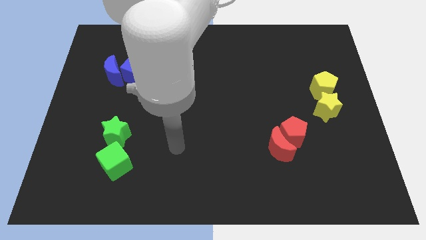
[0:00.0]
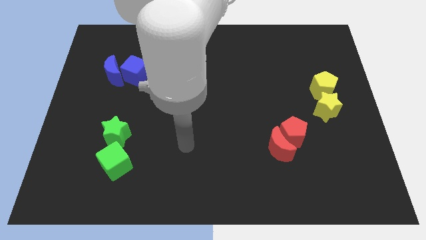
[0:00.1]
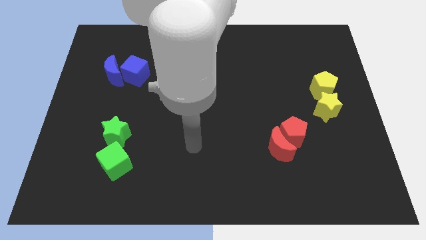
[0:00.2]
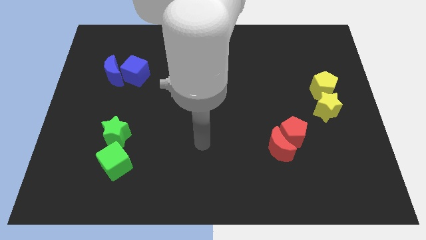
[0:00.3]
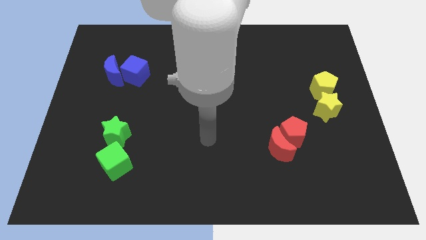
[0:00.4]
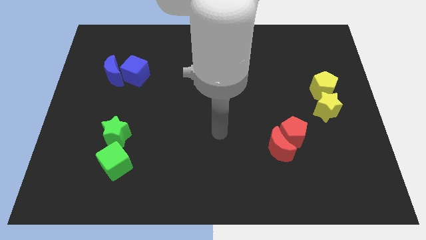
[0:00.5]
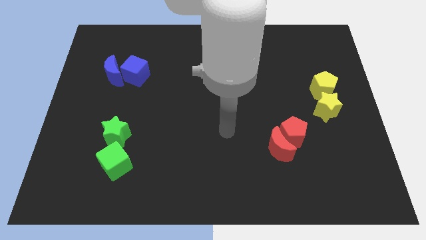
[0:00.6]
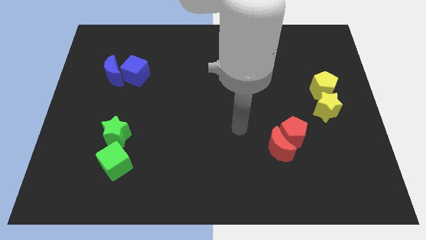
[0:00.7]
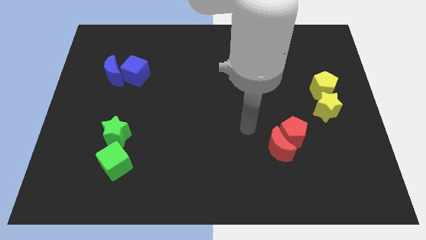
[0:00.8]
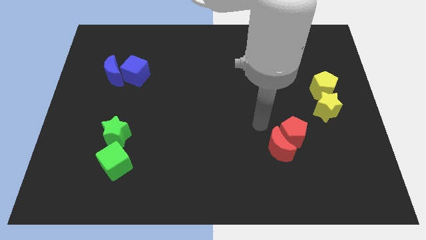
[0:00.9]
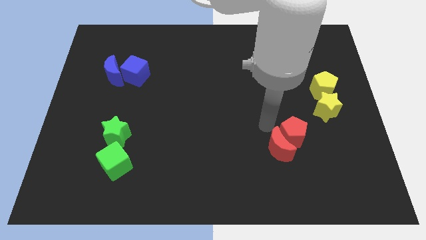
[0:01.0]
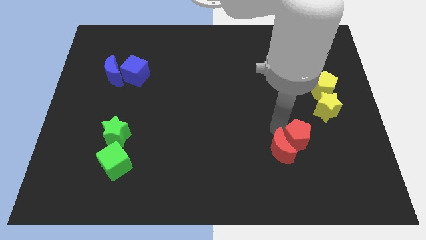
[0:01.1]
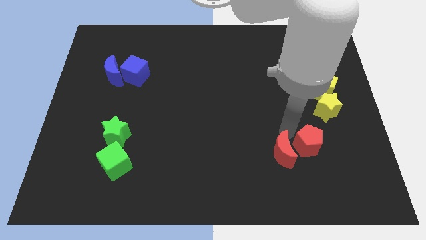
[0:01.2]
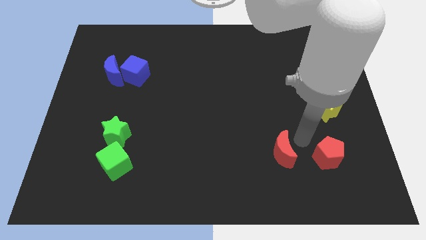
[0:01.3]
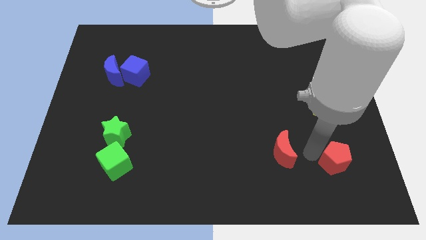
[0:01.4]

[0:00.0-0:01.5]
move the red moon away from the red pentagon

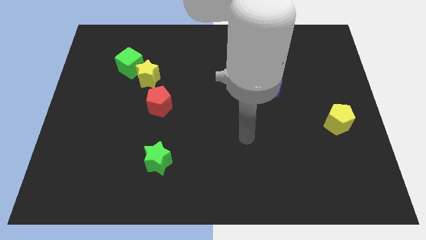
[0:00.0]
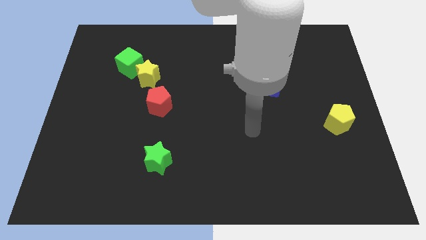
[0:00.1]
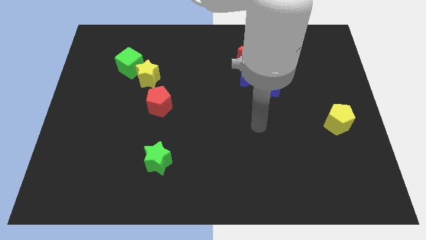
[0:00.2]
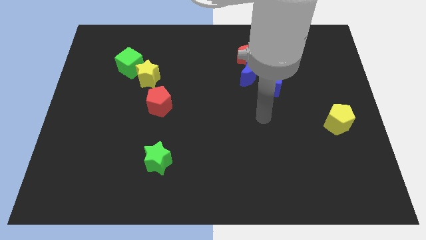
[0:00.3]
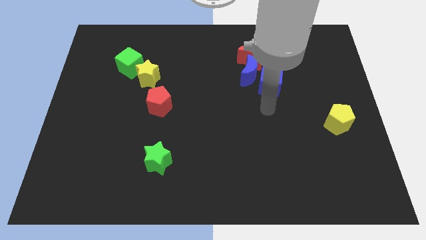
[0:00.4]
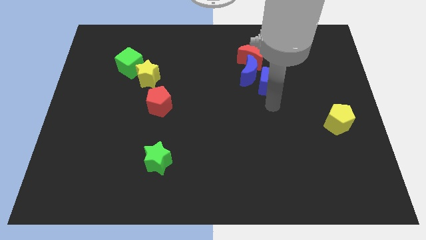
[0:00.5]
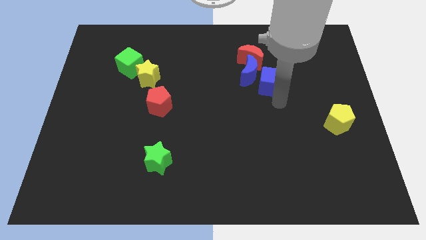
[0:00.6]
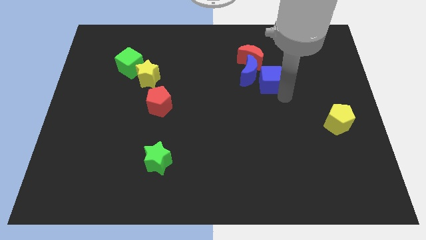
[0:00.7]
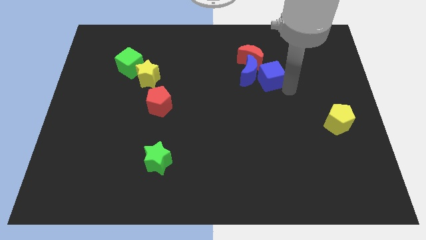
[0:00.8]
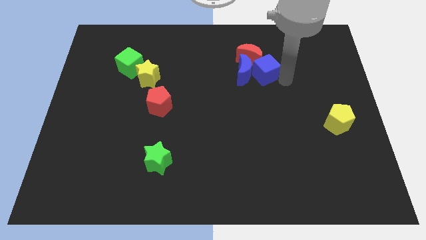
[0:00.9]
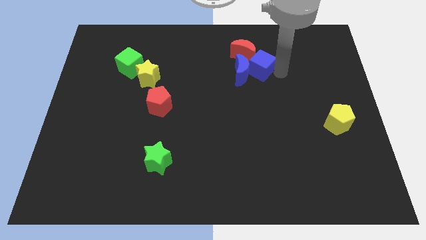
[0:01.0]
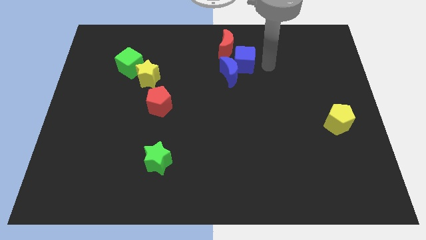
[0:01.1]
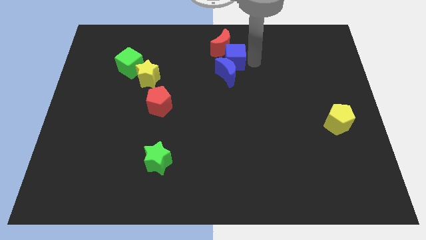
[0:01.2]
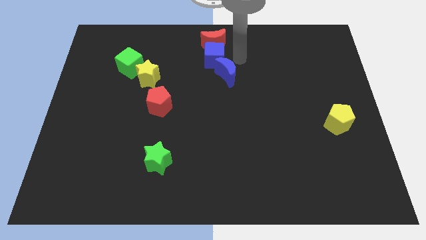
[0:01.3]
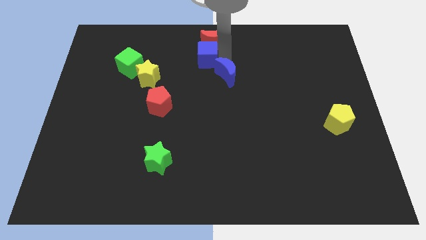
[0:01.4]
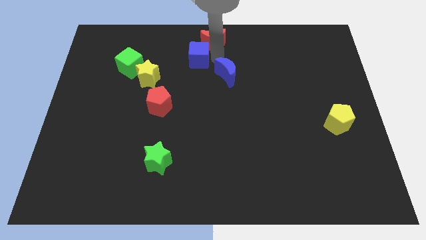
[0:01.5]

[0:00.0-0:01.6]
separate the blue moon from the red moon and blue cube

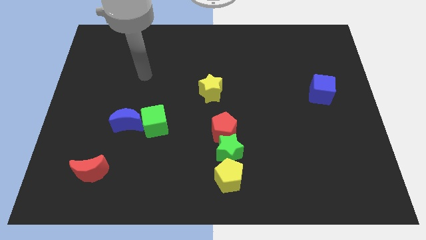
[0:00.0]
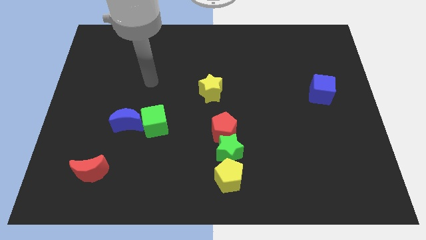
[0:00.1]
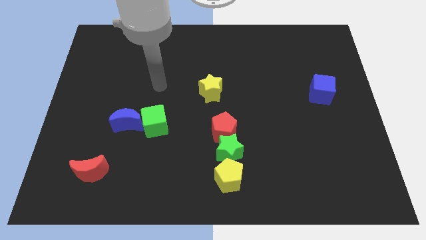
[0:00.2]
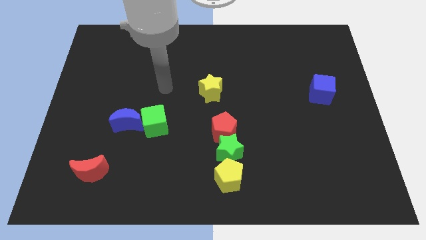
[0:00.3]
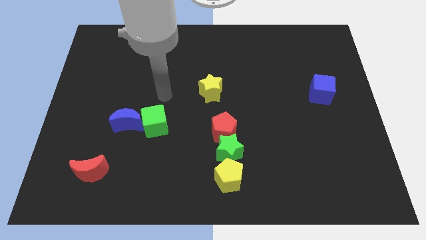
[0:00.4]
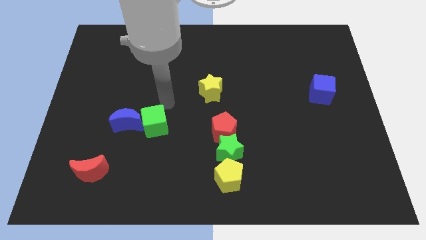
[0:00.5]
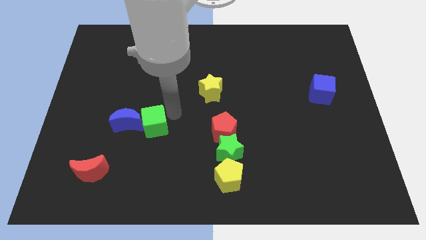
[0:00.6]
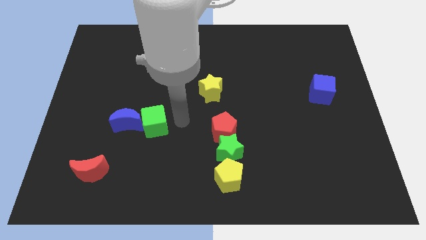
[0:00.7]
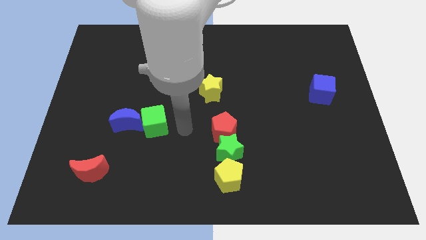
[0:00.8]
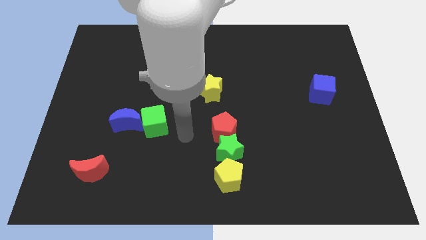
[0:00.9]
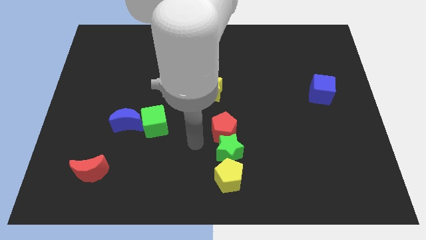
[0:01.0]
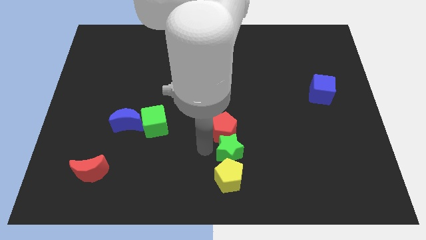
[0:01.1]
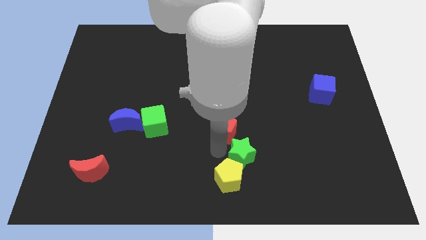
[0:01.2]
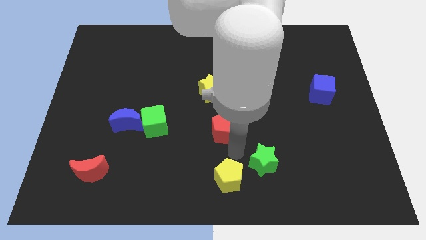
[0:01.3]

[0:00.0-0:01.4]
pull the red pentagon apart from the green star

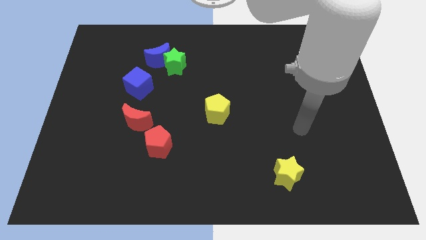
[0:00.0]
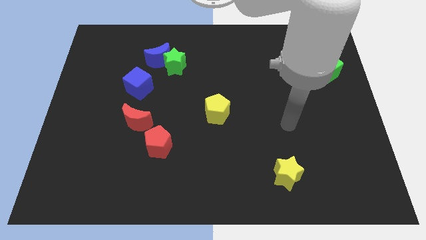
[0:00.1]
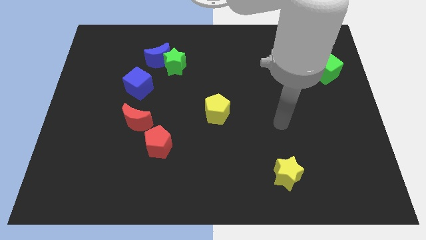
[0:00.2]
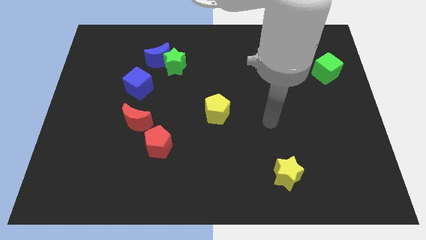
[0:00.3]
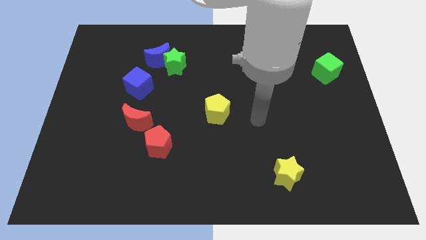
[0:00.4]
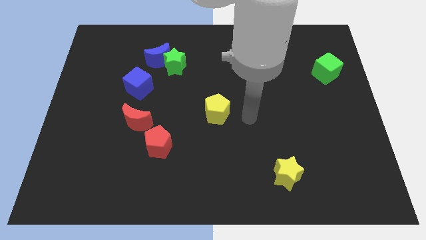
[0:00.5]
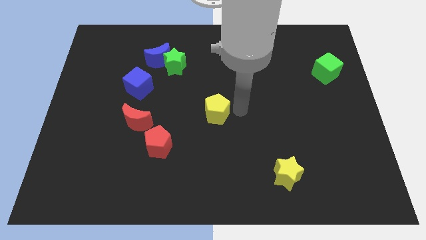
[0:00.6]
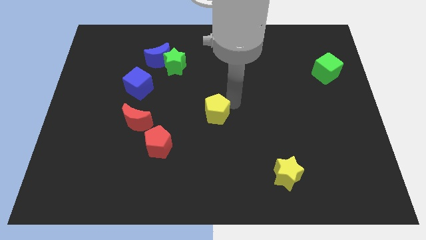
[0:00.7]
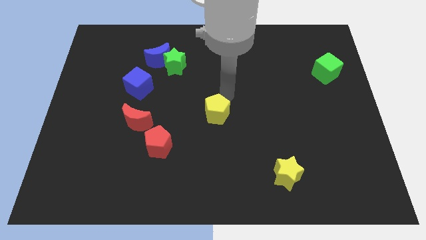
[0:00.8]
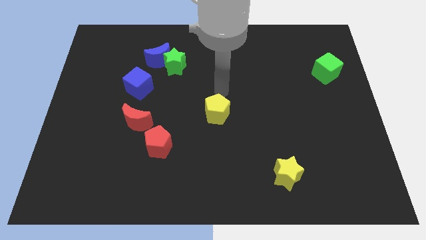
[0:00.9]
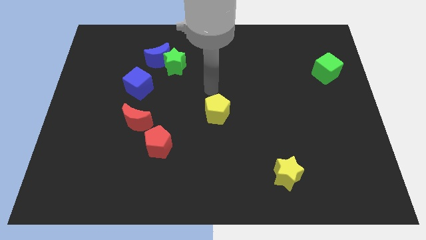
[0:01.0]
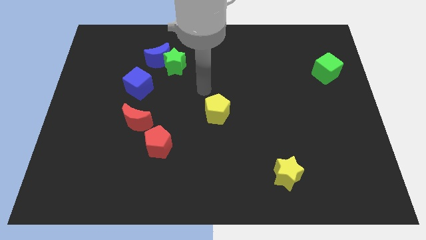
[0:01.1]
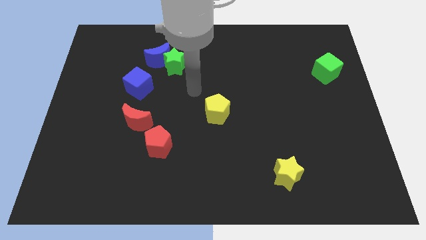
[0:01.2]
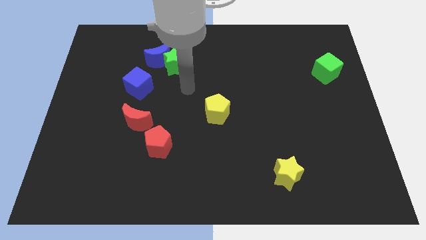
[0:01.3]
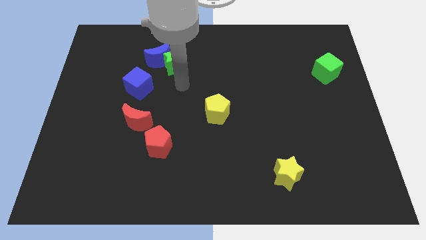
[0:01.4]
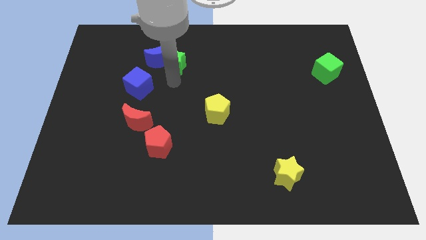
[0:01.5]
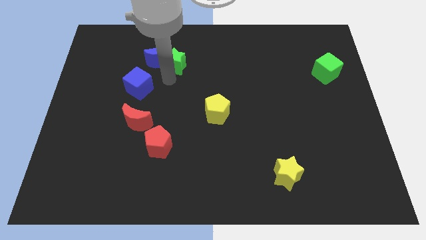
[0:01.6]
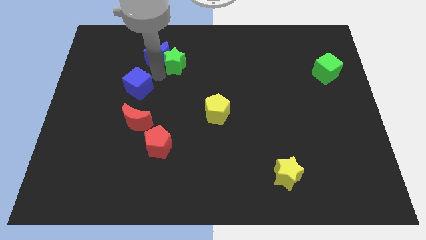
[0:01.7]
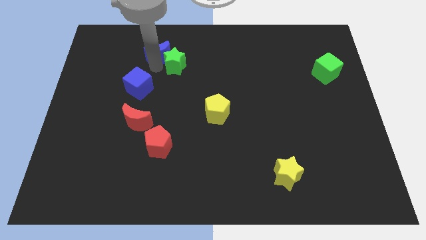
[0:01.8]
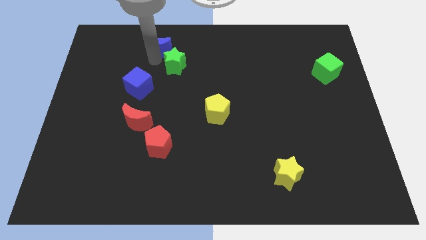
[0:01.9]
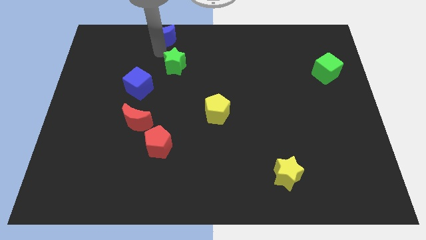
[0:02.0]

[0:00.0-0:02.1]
pull the green star apart from the blue moon

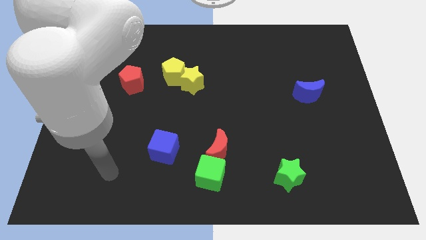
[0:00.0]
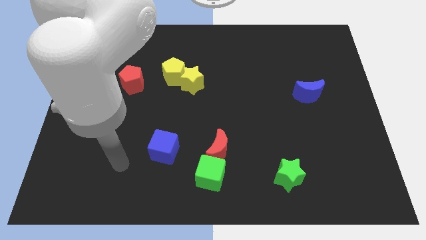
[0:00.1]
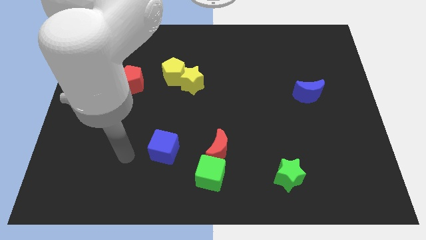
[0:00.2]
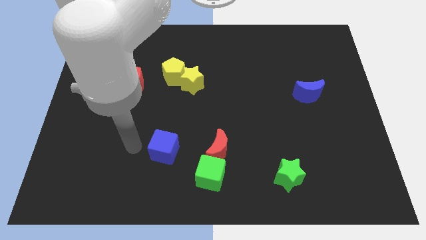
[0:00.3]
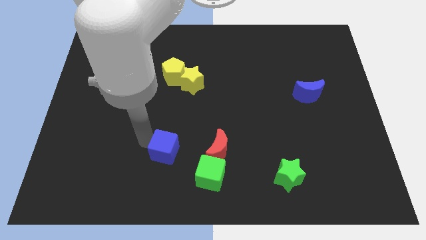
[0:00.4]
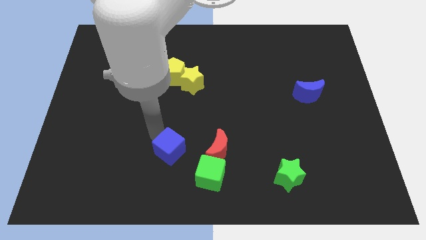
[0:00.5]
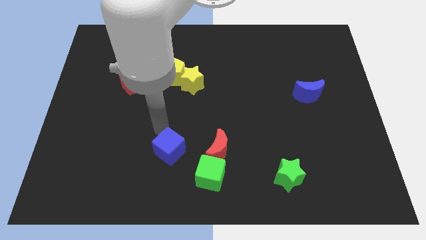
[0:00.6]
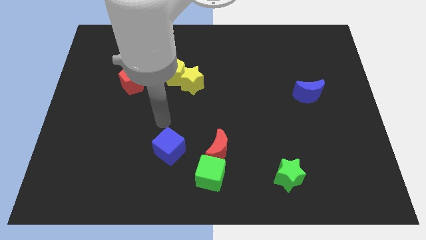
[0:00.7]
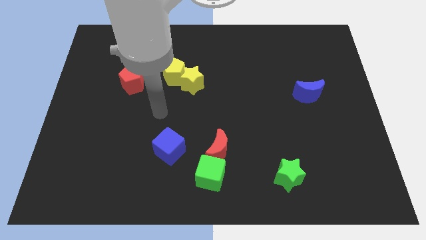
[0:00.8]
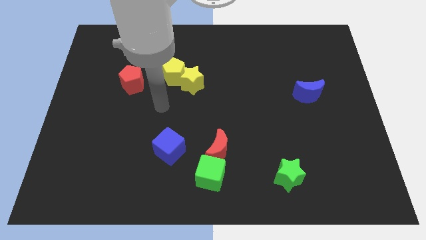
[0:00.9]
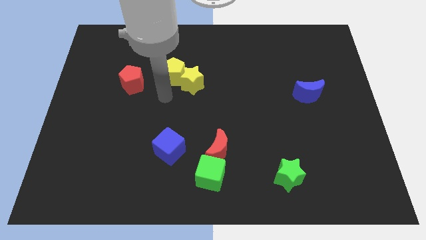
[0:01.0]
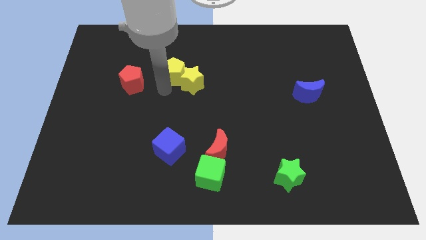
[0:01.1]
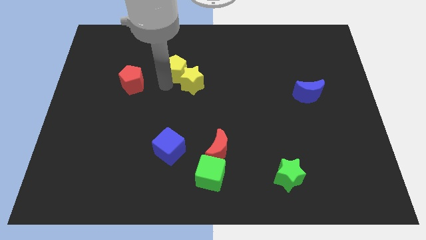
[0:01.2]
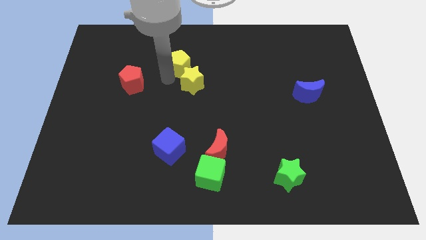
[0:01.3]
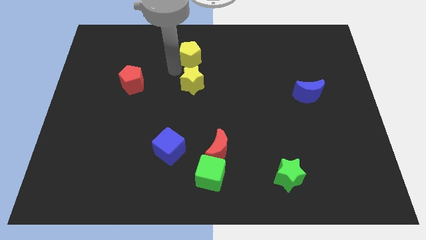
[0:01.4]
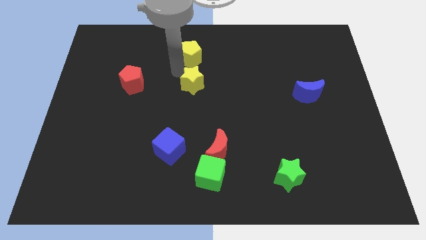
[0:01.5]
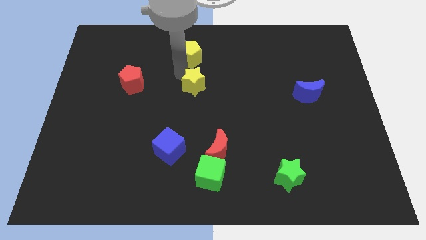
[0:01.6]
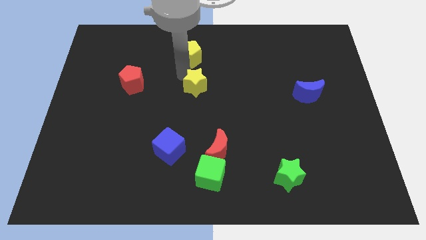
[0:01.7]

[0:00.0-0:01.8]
separate the yellow star from the yellow pentagon

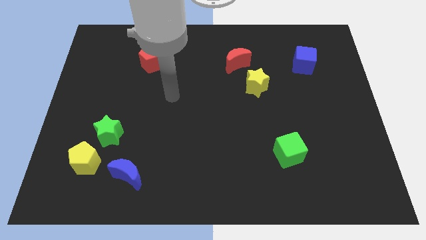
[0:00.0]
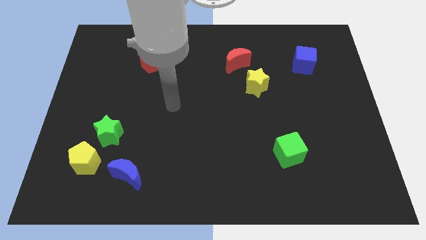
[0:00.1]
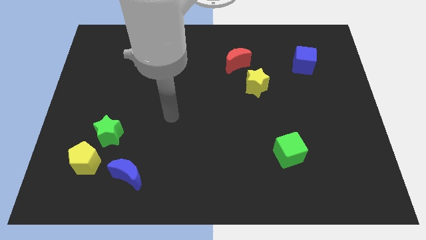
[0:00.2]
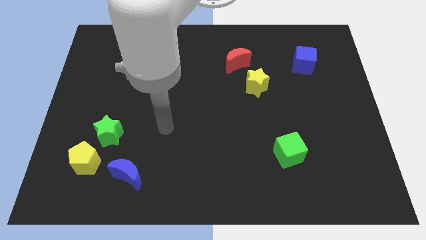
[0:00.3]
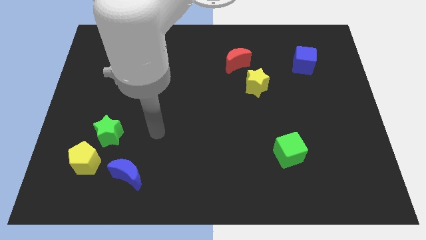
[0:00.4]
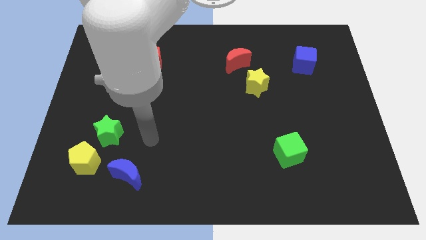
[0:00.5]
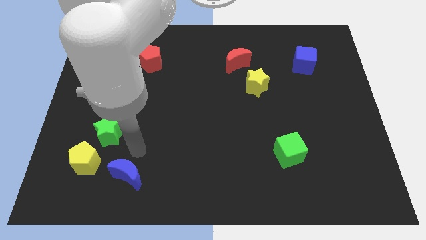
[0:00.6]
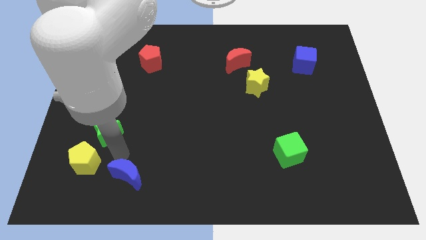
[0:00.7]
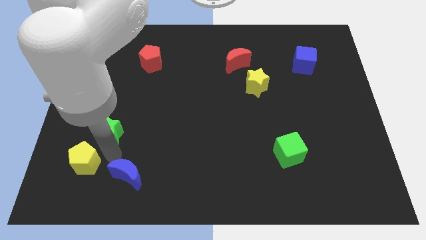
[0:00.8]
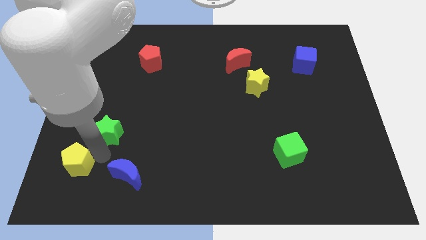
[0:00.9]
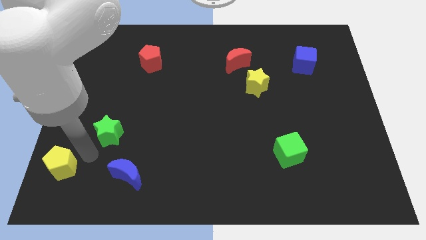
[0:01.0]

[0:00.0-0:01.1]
pull the green star apart from the yellow pentagon
